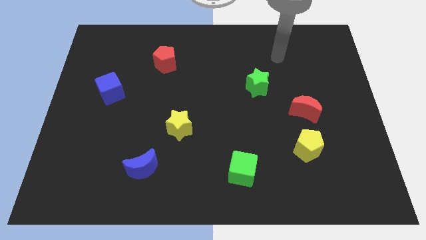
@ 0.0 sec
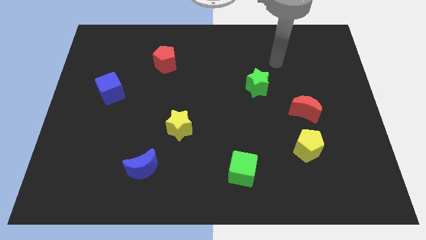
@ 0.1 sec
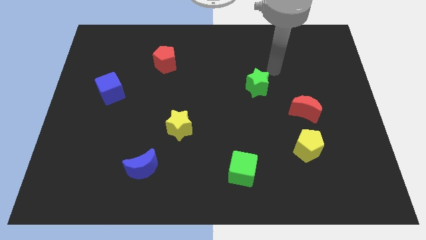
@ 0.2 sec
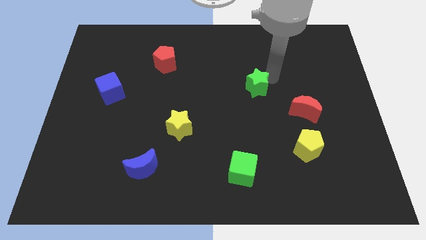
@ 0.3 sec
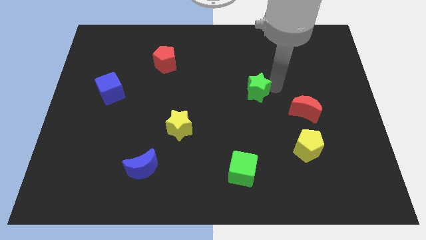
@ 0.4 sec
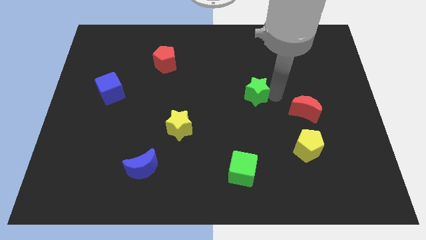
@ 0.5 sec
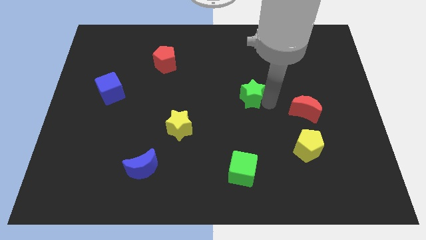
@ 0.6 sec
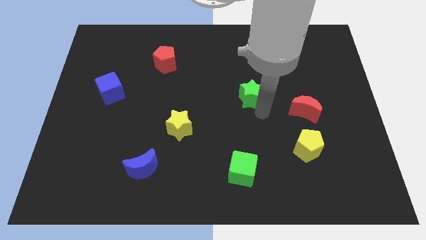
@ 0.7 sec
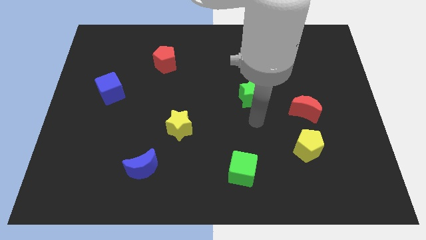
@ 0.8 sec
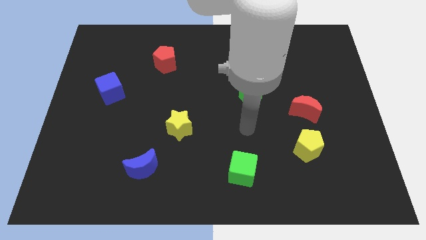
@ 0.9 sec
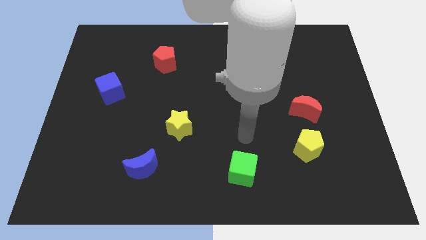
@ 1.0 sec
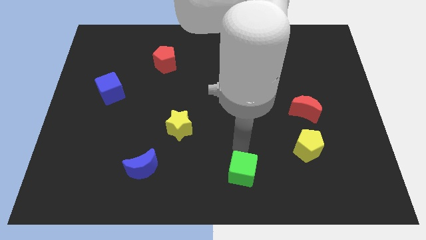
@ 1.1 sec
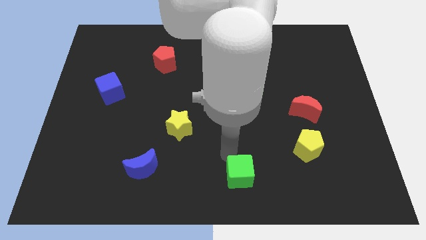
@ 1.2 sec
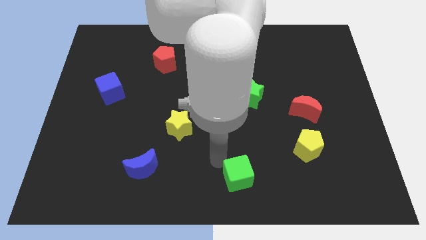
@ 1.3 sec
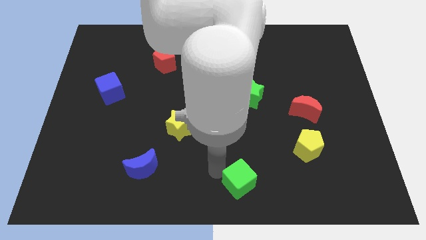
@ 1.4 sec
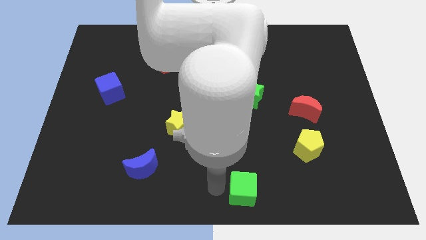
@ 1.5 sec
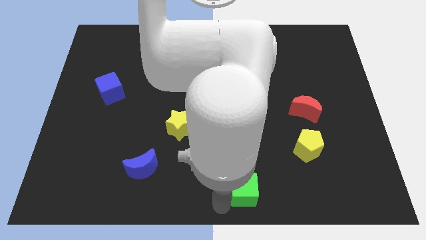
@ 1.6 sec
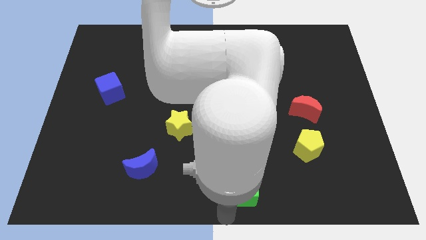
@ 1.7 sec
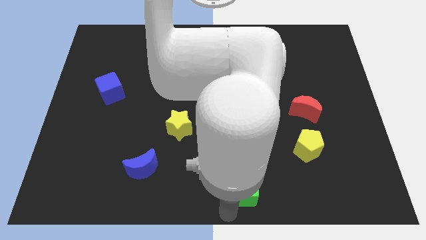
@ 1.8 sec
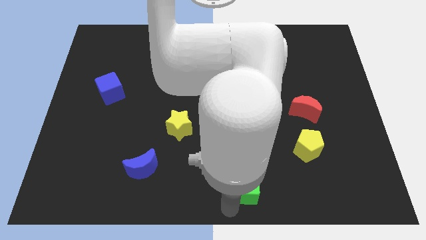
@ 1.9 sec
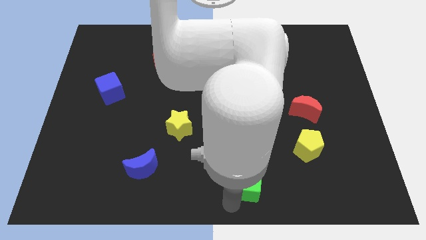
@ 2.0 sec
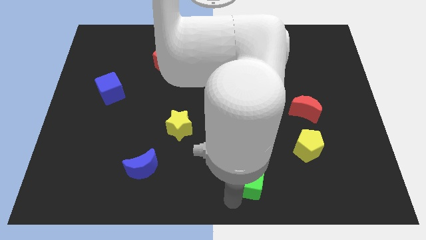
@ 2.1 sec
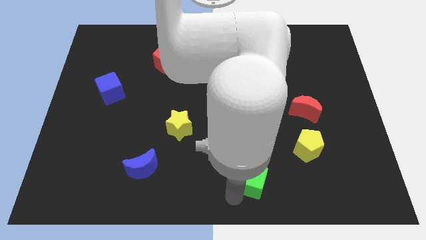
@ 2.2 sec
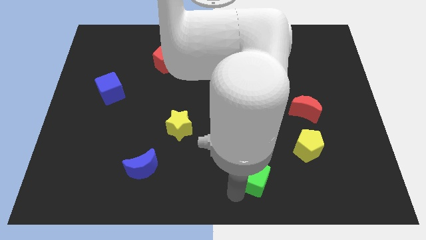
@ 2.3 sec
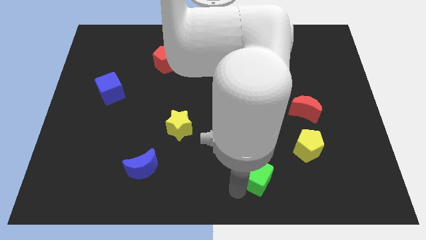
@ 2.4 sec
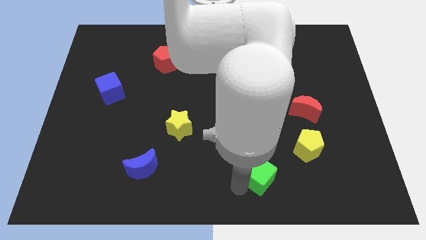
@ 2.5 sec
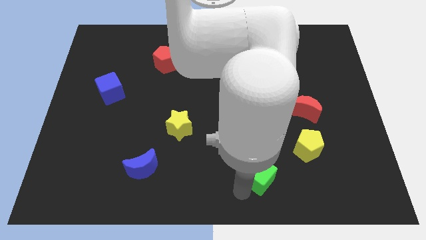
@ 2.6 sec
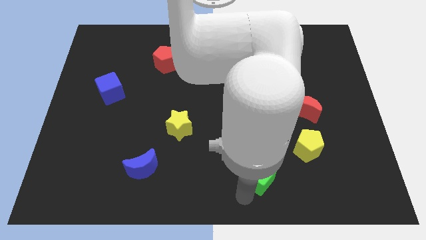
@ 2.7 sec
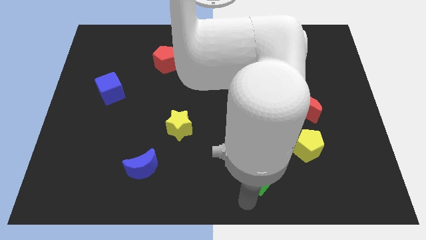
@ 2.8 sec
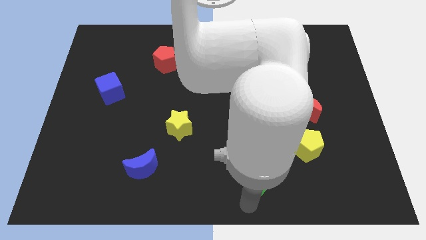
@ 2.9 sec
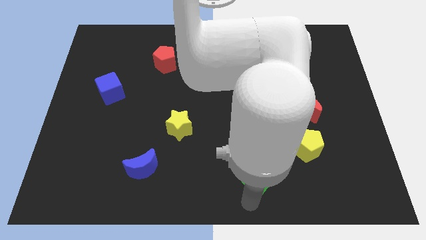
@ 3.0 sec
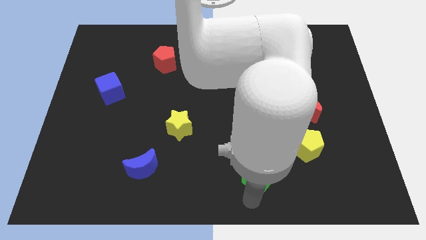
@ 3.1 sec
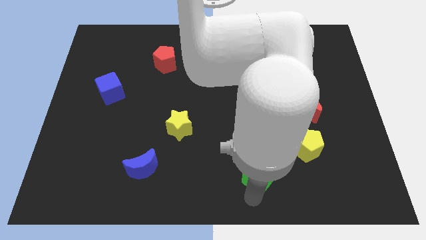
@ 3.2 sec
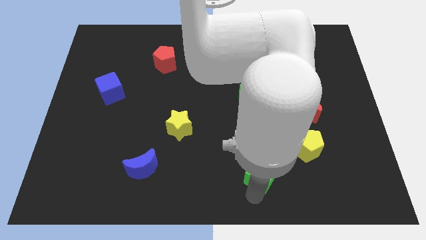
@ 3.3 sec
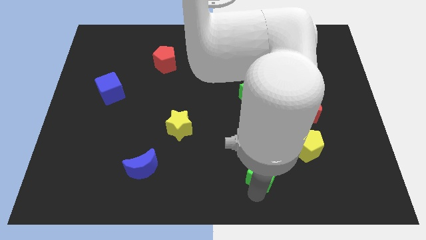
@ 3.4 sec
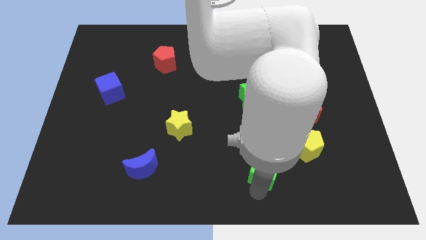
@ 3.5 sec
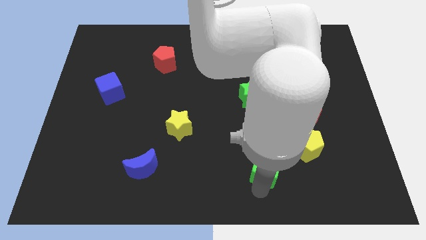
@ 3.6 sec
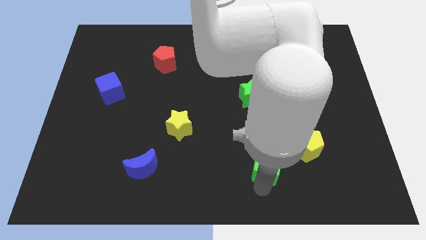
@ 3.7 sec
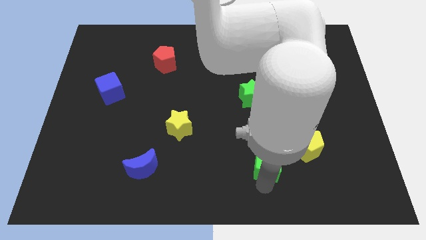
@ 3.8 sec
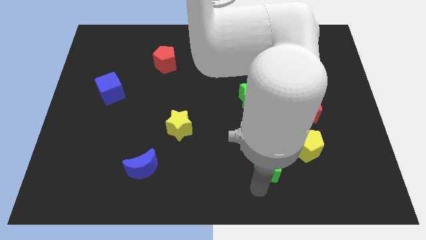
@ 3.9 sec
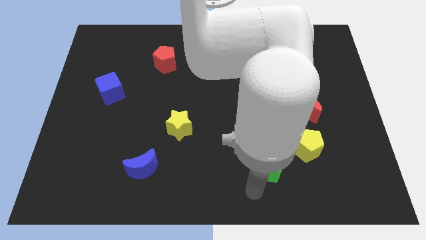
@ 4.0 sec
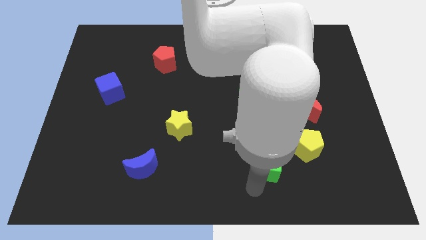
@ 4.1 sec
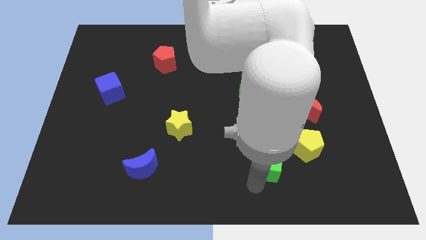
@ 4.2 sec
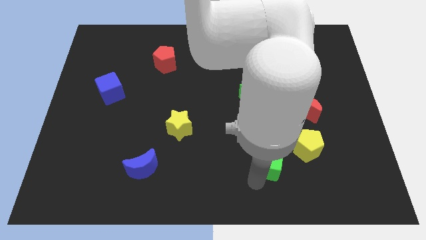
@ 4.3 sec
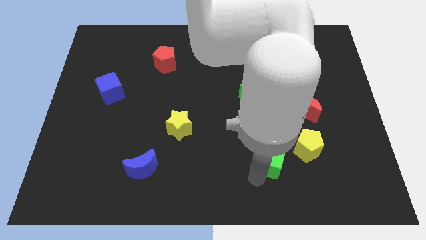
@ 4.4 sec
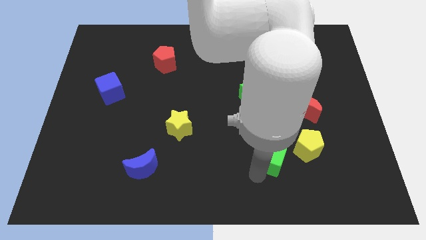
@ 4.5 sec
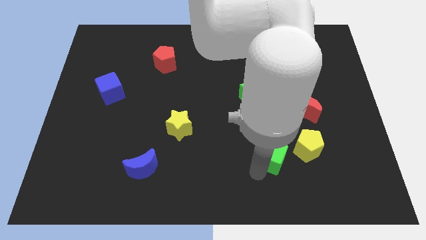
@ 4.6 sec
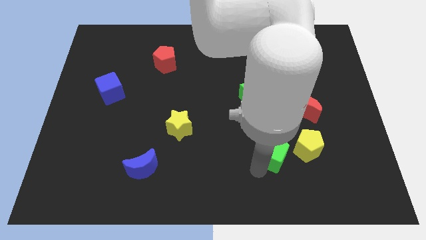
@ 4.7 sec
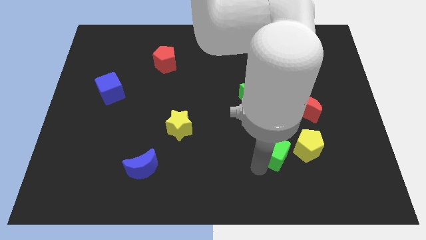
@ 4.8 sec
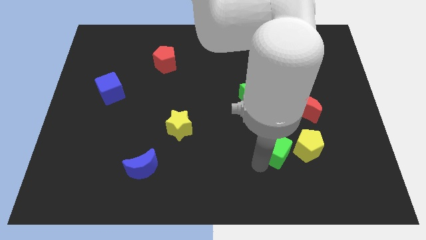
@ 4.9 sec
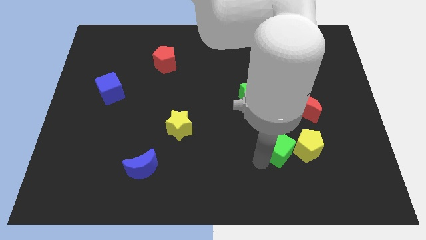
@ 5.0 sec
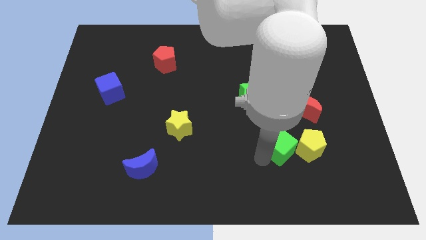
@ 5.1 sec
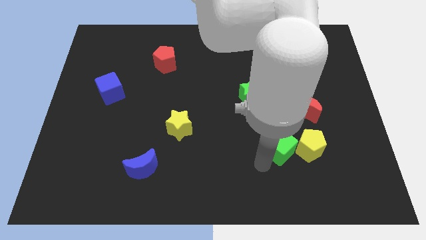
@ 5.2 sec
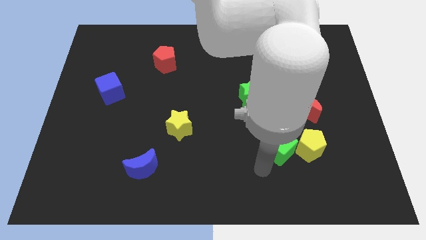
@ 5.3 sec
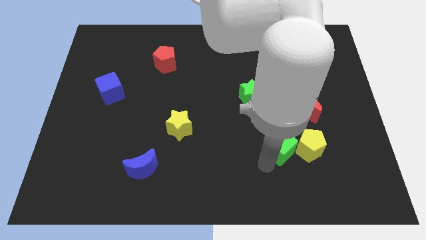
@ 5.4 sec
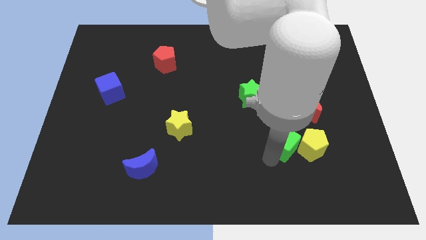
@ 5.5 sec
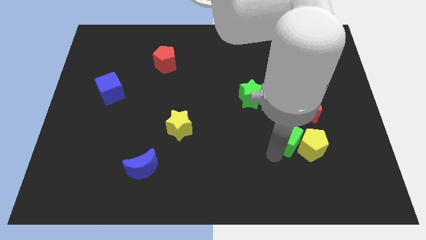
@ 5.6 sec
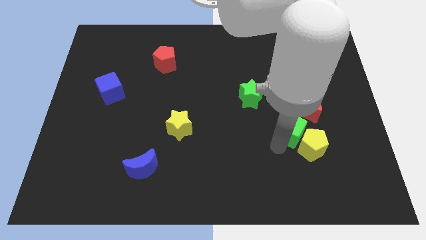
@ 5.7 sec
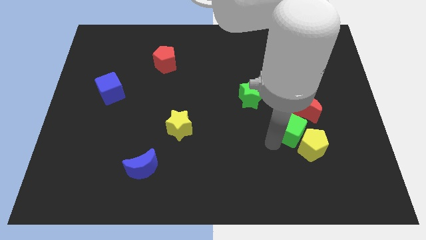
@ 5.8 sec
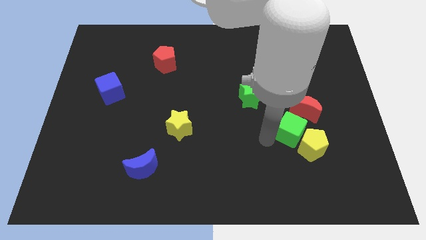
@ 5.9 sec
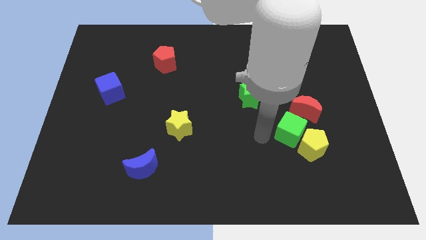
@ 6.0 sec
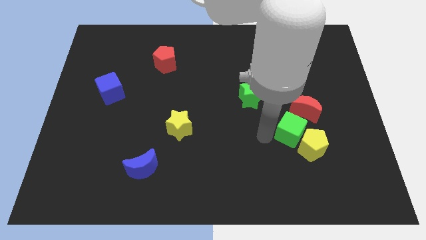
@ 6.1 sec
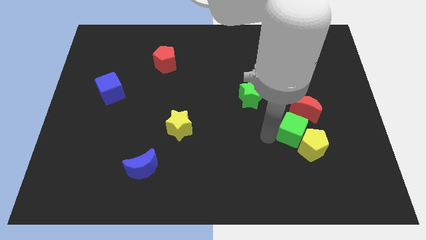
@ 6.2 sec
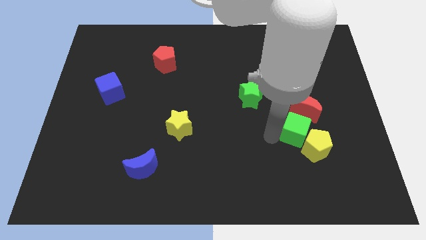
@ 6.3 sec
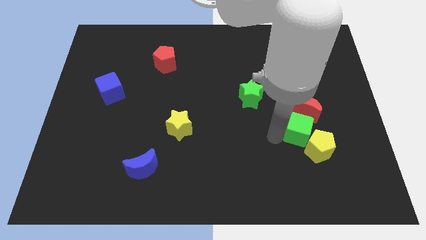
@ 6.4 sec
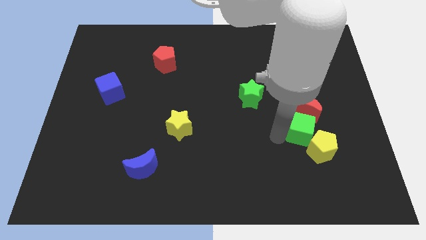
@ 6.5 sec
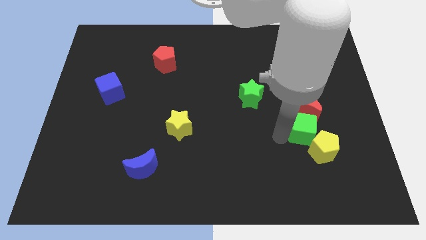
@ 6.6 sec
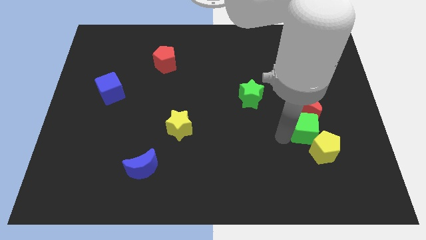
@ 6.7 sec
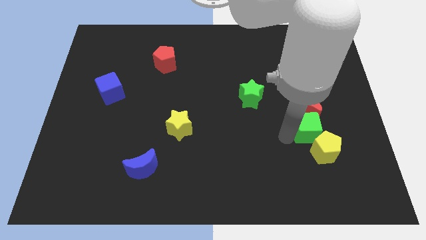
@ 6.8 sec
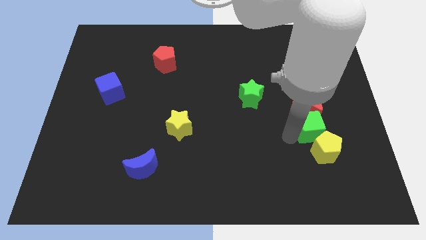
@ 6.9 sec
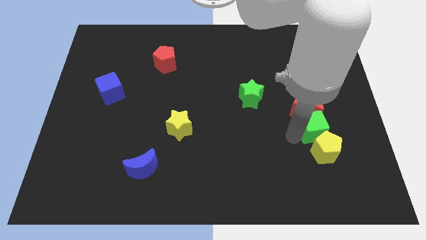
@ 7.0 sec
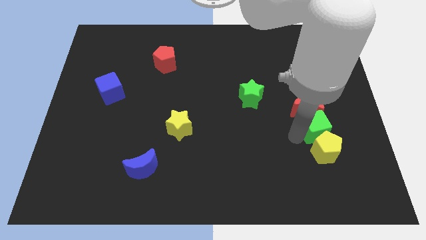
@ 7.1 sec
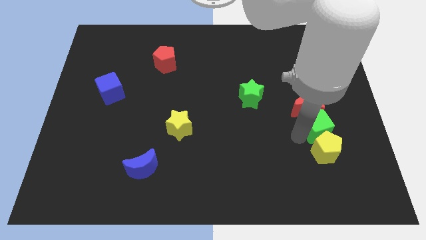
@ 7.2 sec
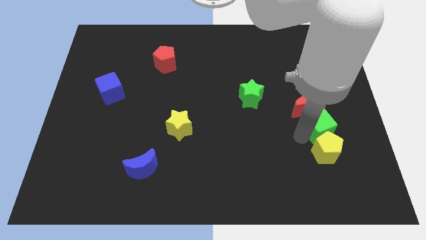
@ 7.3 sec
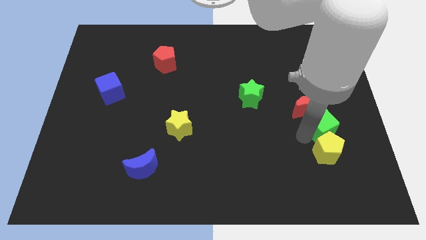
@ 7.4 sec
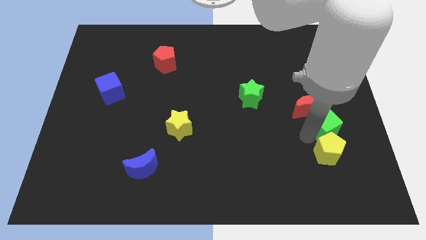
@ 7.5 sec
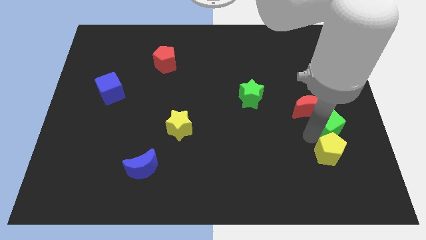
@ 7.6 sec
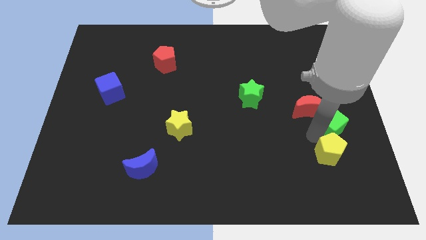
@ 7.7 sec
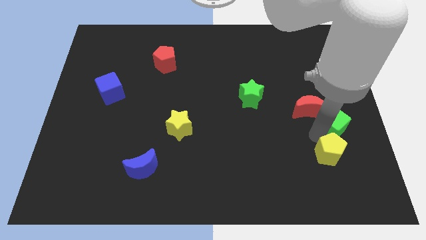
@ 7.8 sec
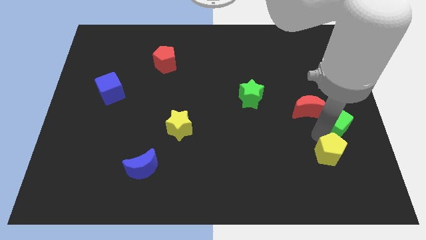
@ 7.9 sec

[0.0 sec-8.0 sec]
put the green cube to the right side
